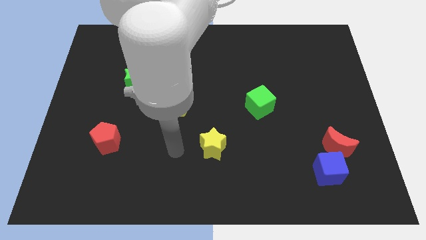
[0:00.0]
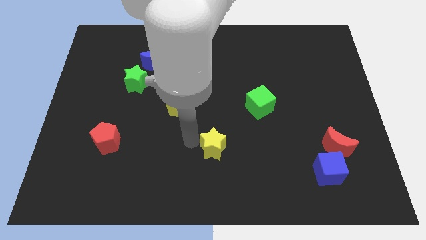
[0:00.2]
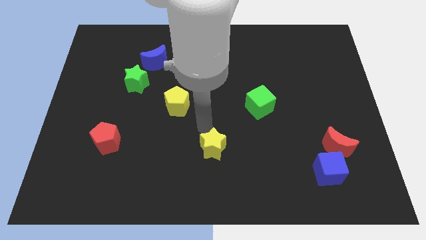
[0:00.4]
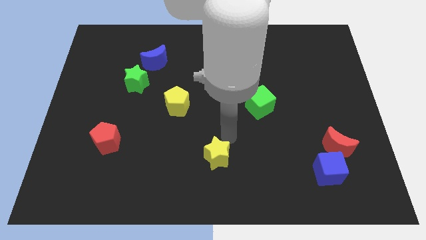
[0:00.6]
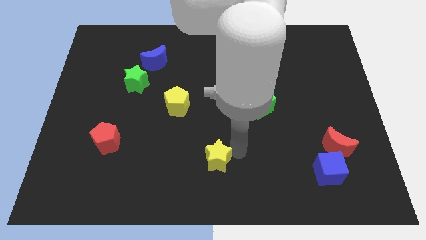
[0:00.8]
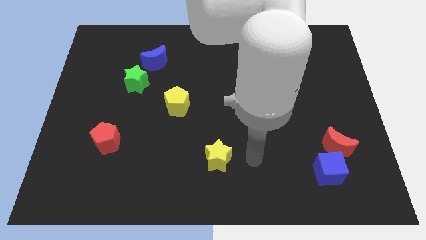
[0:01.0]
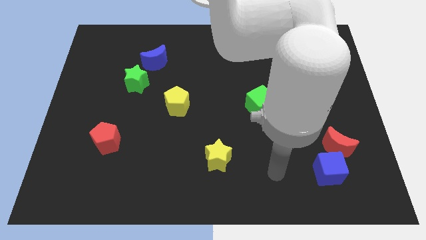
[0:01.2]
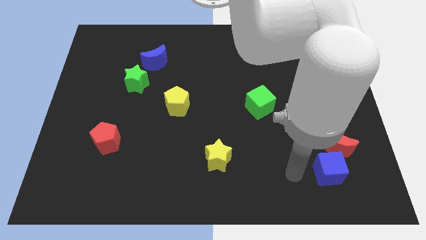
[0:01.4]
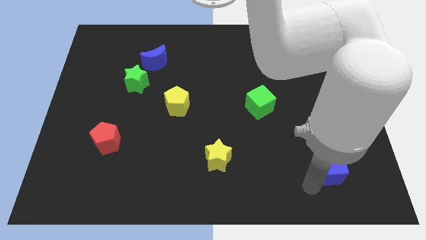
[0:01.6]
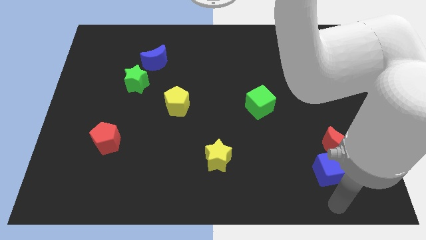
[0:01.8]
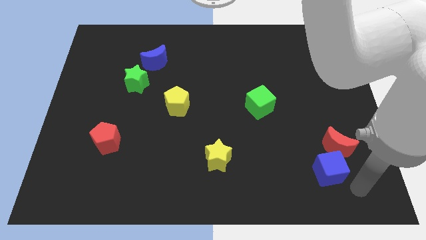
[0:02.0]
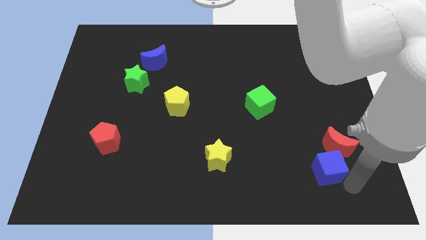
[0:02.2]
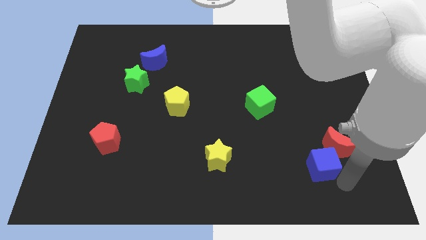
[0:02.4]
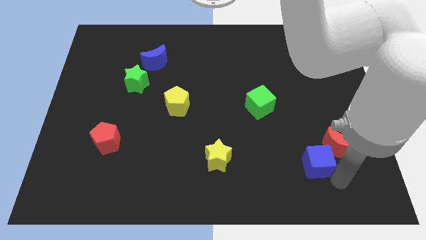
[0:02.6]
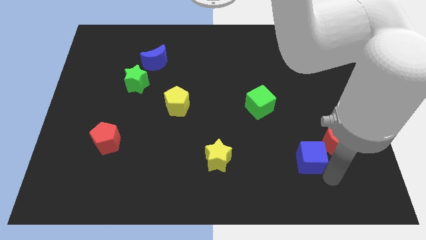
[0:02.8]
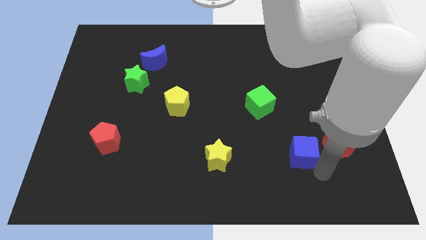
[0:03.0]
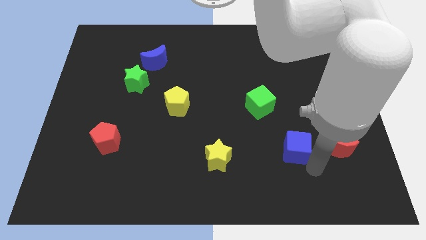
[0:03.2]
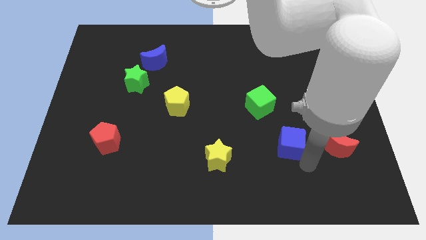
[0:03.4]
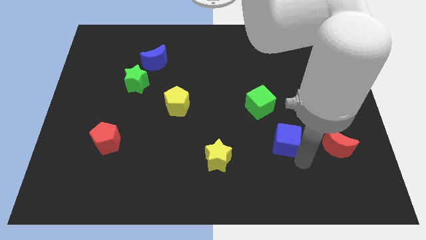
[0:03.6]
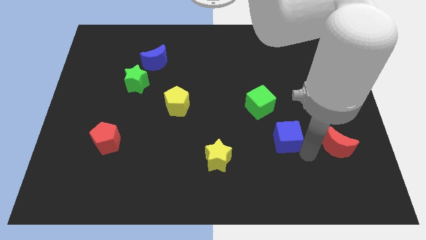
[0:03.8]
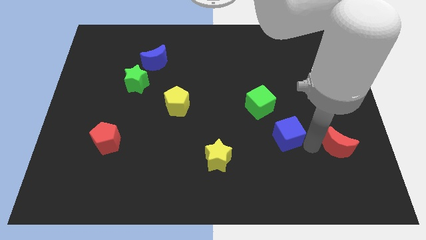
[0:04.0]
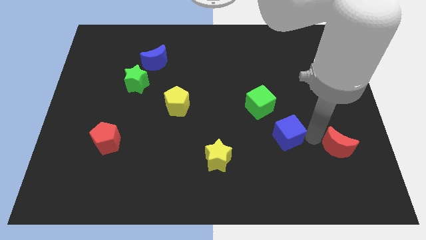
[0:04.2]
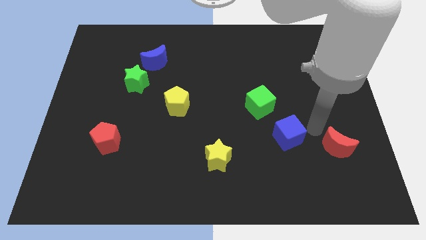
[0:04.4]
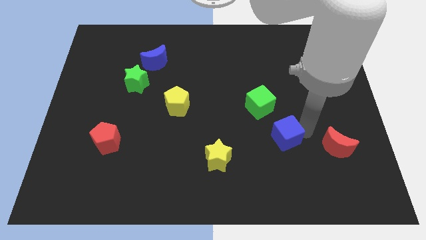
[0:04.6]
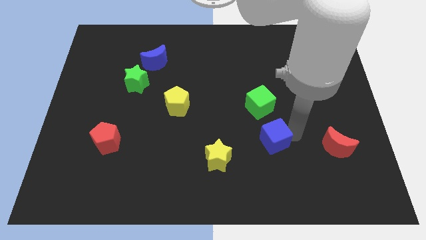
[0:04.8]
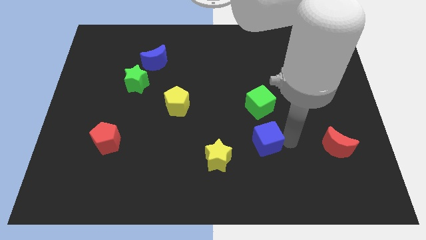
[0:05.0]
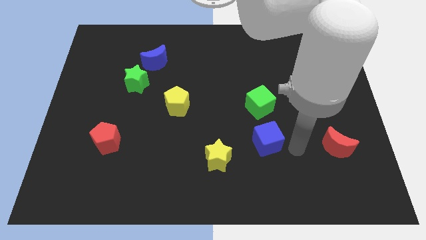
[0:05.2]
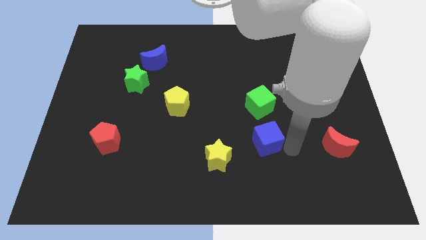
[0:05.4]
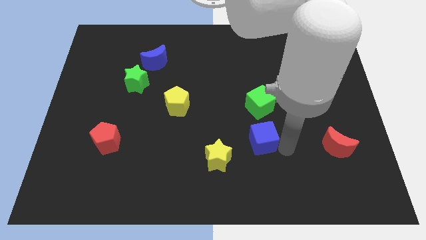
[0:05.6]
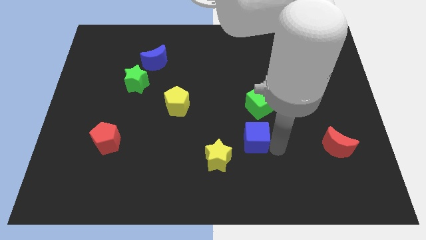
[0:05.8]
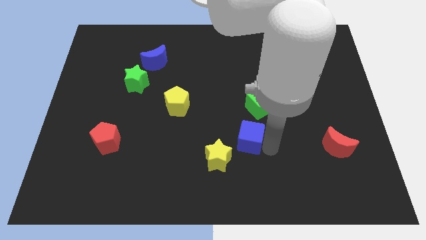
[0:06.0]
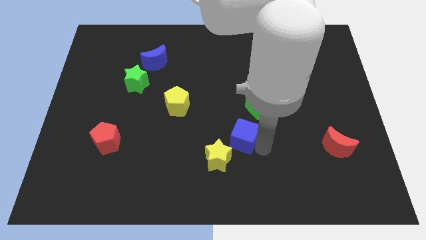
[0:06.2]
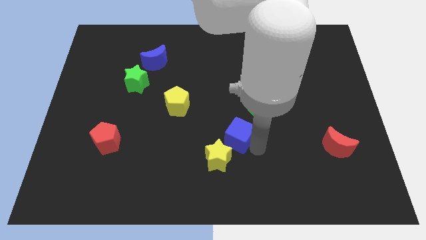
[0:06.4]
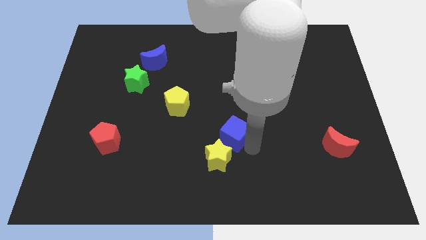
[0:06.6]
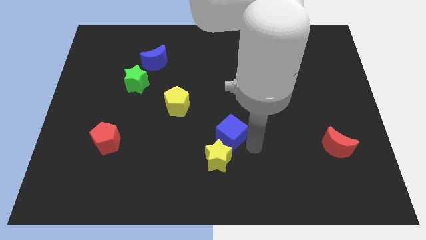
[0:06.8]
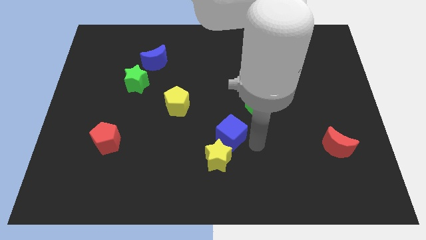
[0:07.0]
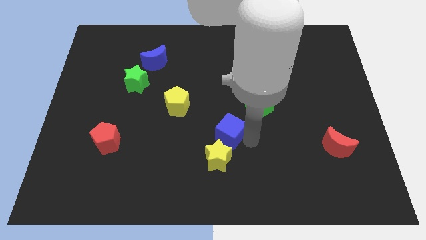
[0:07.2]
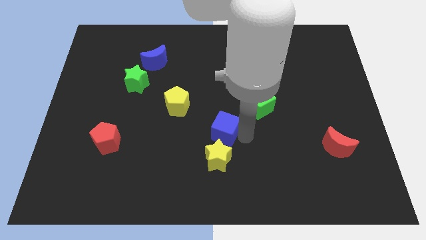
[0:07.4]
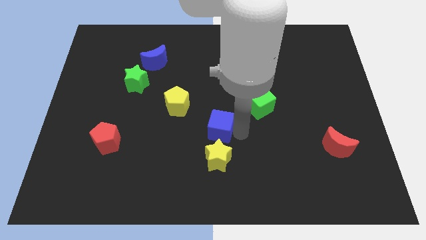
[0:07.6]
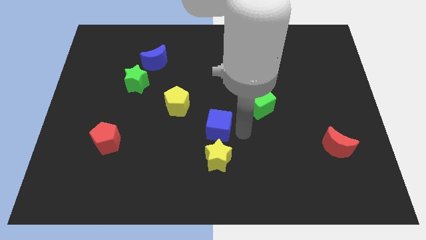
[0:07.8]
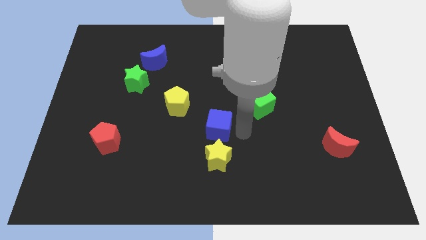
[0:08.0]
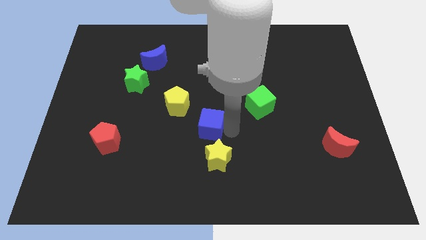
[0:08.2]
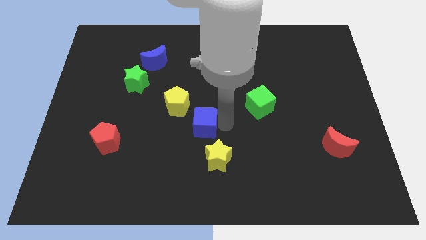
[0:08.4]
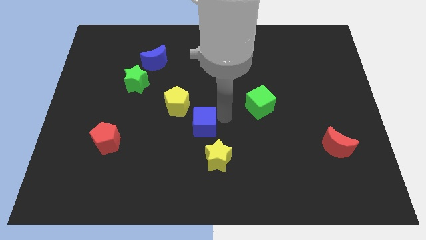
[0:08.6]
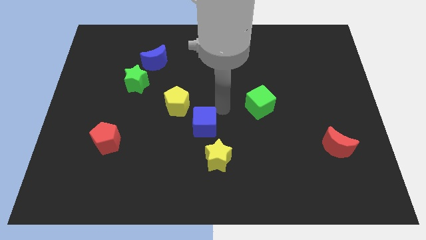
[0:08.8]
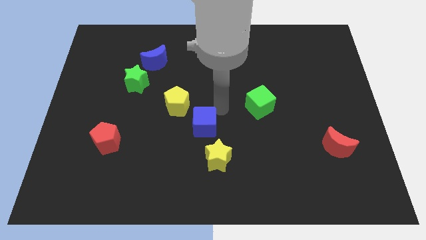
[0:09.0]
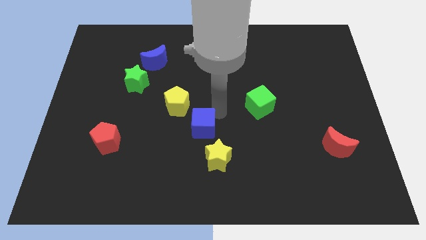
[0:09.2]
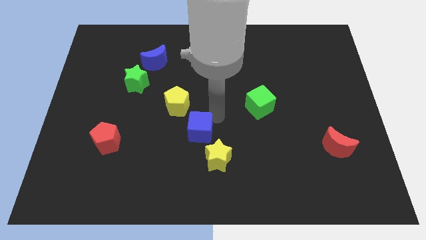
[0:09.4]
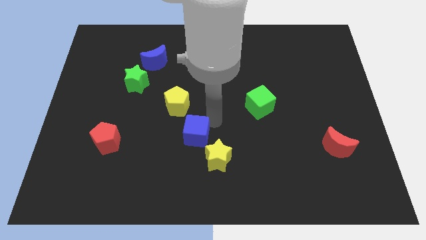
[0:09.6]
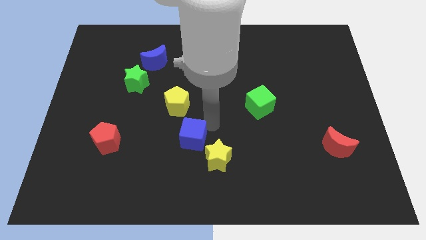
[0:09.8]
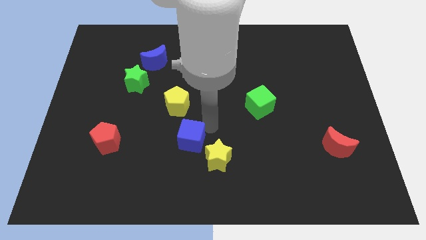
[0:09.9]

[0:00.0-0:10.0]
move the blue cube just left of the yellow star

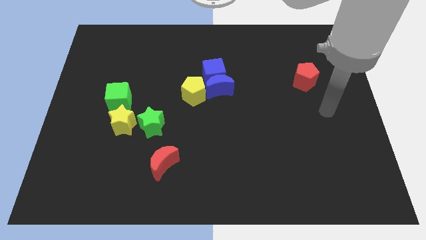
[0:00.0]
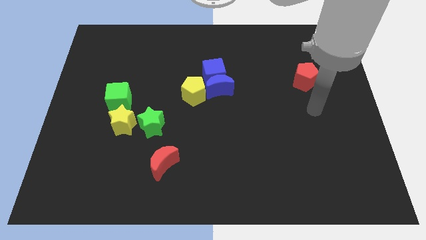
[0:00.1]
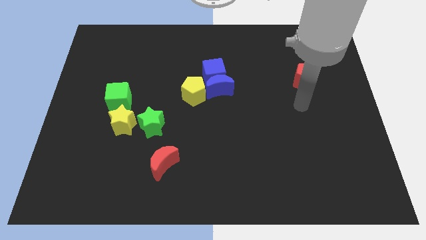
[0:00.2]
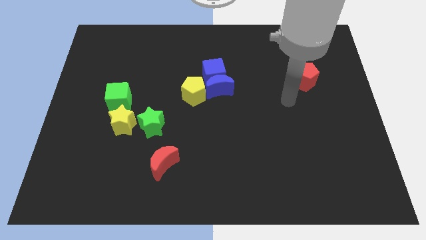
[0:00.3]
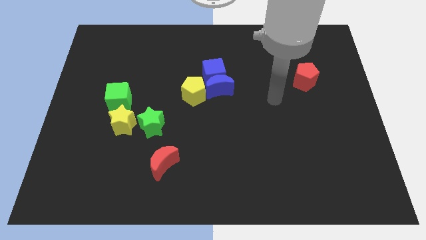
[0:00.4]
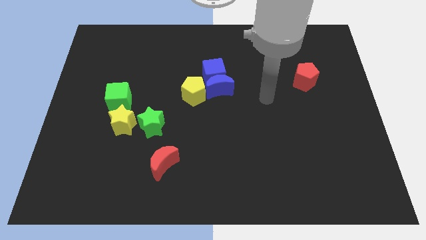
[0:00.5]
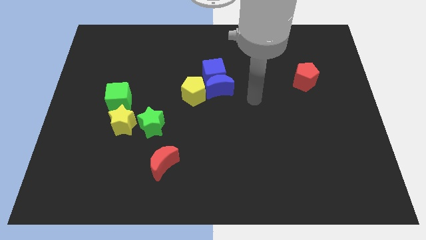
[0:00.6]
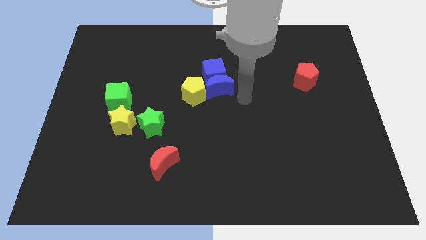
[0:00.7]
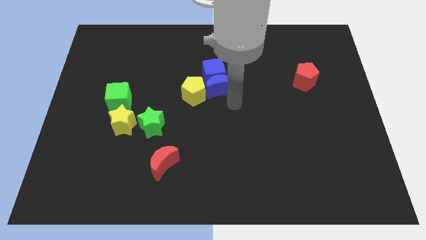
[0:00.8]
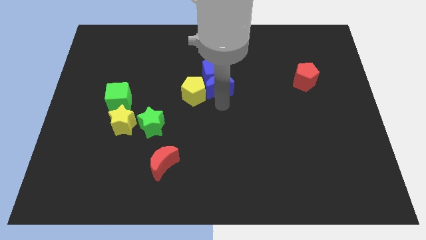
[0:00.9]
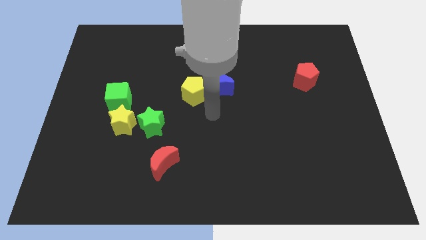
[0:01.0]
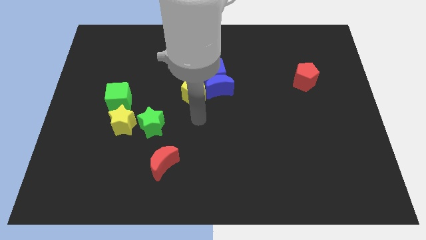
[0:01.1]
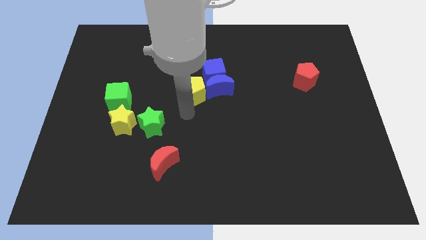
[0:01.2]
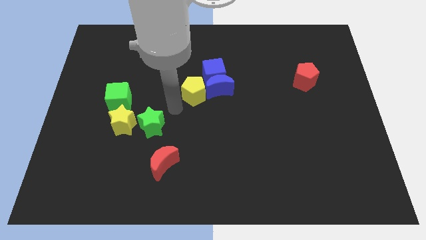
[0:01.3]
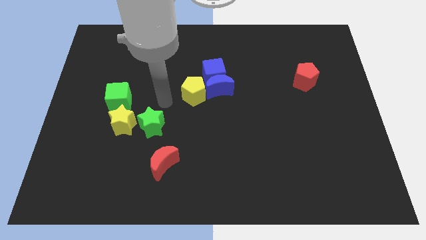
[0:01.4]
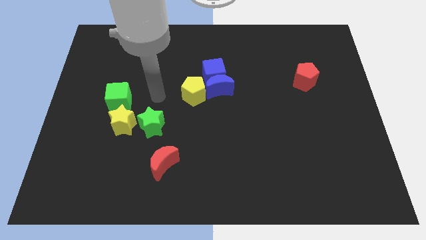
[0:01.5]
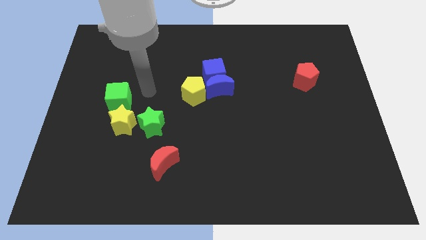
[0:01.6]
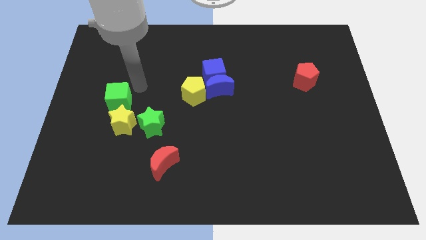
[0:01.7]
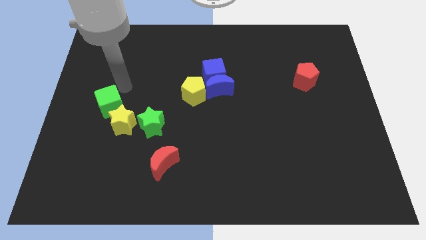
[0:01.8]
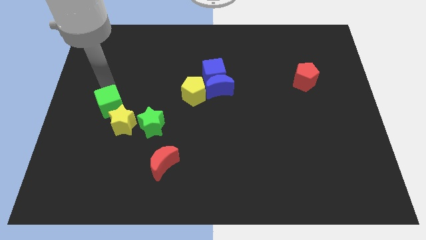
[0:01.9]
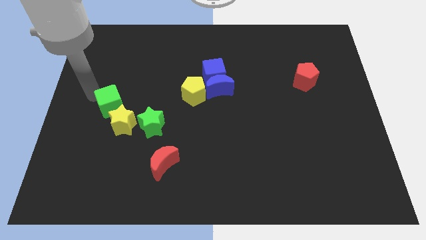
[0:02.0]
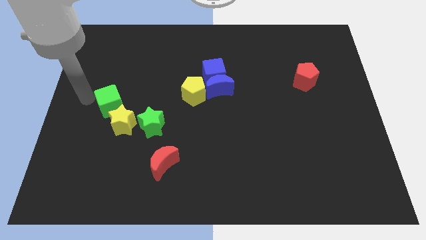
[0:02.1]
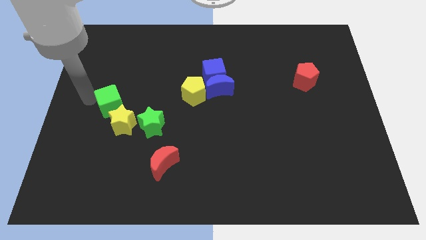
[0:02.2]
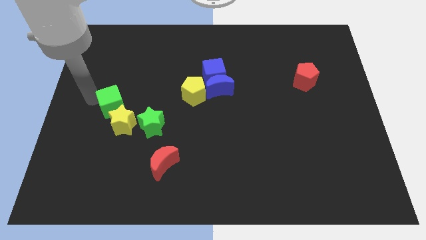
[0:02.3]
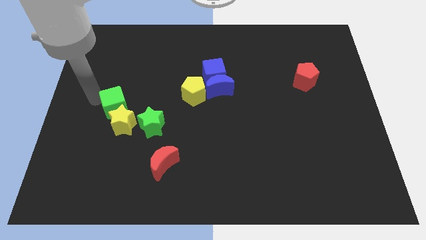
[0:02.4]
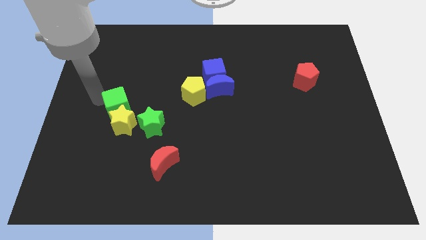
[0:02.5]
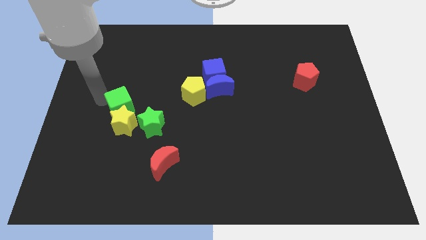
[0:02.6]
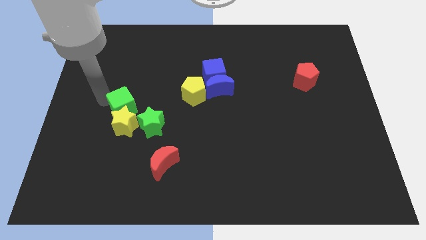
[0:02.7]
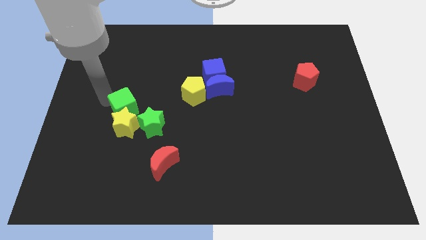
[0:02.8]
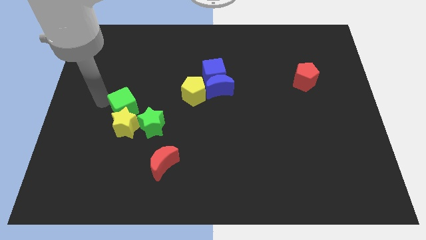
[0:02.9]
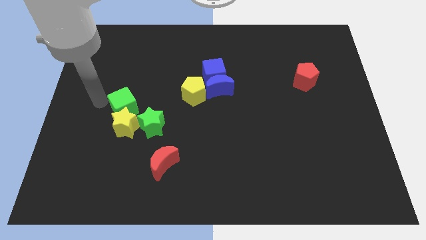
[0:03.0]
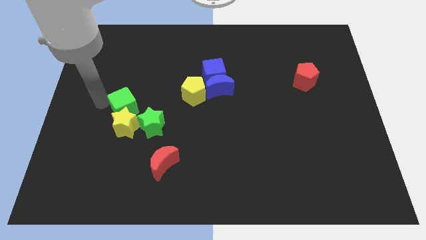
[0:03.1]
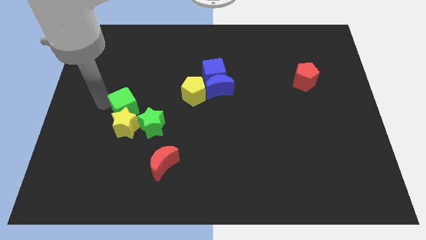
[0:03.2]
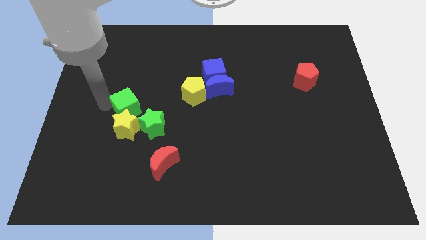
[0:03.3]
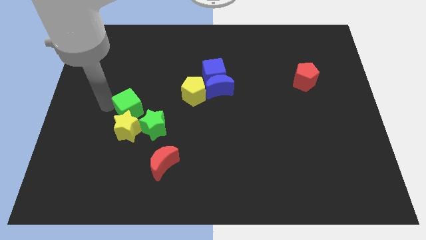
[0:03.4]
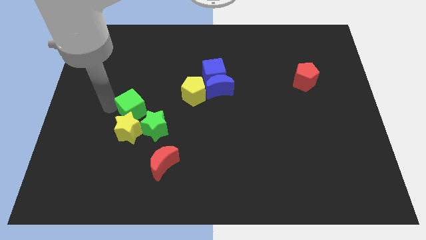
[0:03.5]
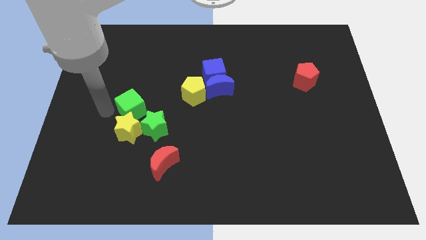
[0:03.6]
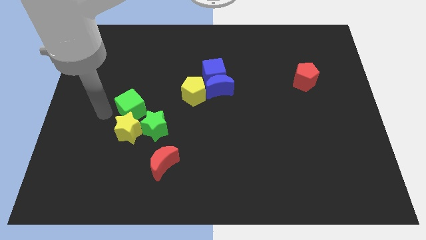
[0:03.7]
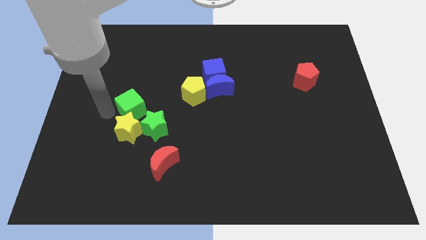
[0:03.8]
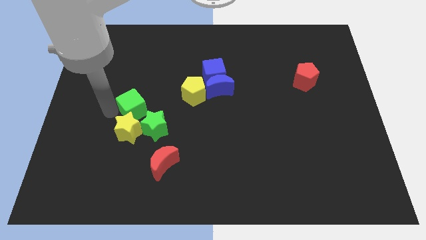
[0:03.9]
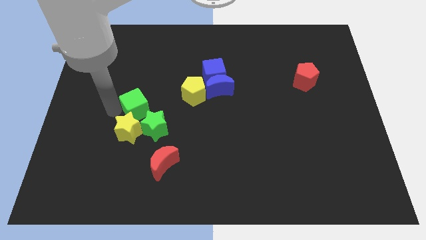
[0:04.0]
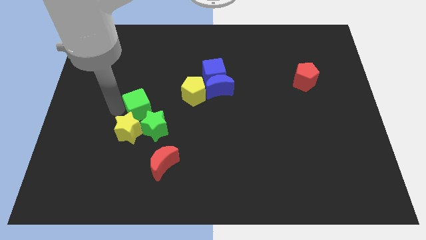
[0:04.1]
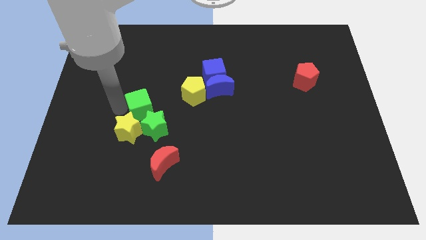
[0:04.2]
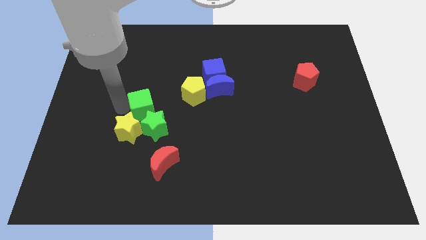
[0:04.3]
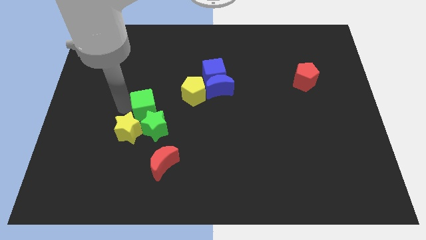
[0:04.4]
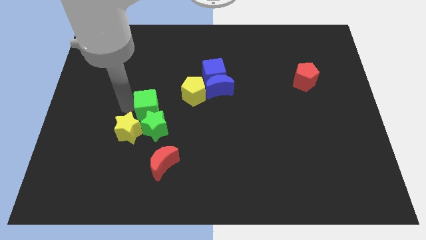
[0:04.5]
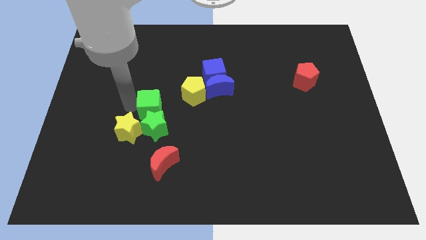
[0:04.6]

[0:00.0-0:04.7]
slide the green cube to the bottom left of the yellow pentagon
